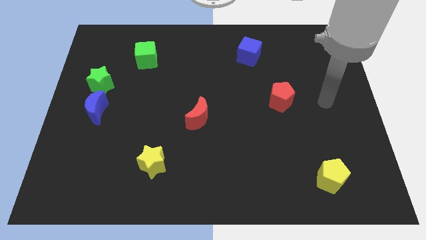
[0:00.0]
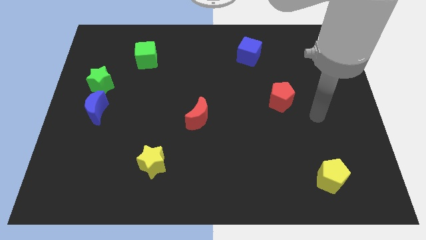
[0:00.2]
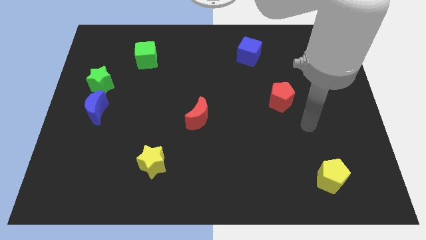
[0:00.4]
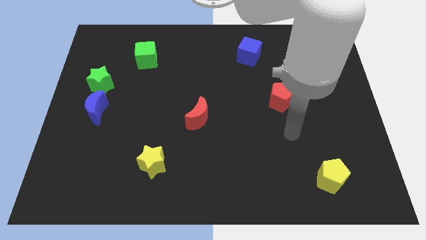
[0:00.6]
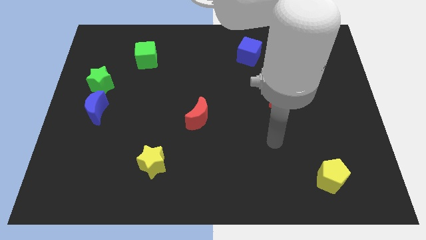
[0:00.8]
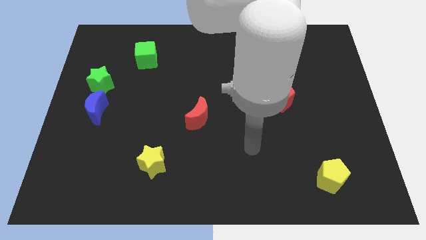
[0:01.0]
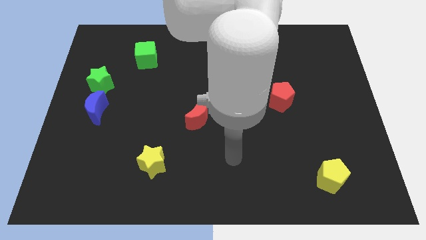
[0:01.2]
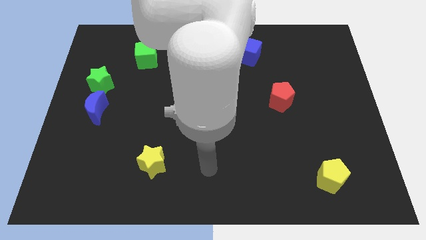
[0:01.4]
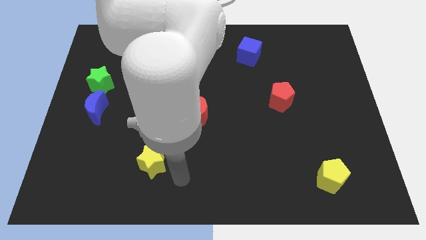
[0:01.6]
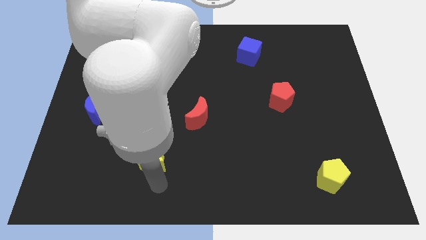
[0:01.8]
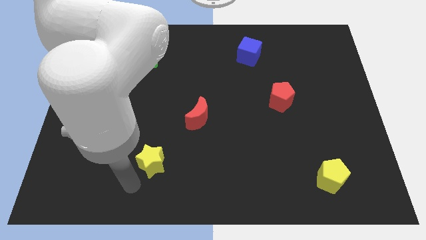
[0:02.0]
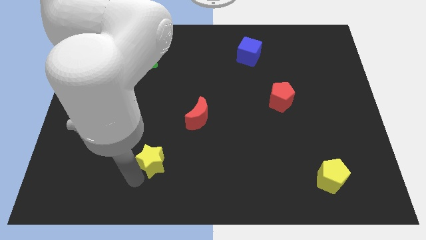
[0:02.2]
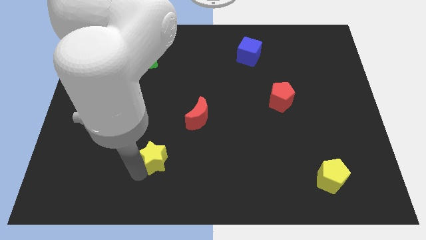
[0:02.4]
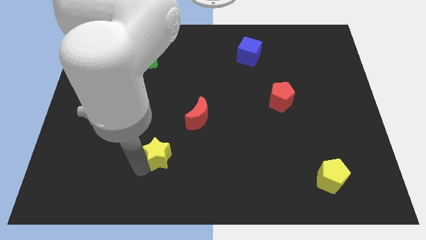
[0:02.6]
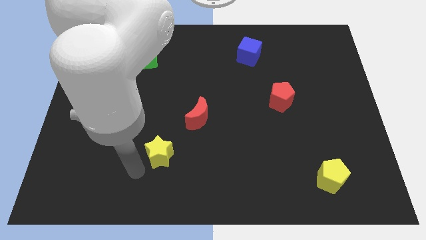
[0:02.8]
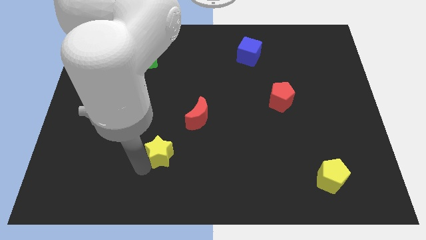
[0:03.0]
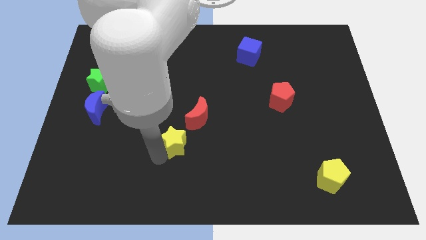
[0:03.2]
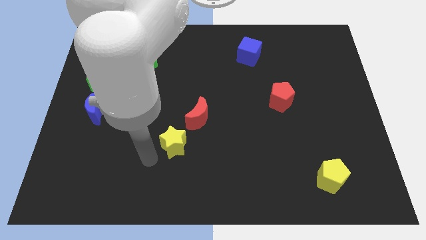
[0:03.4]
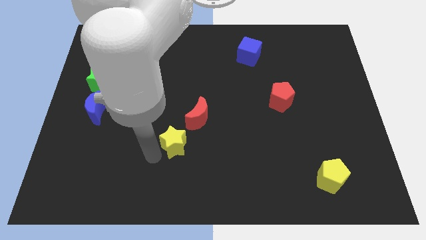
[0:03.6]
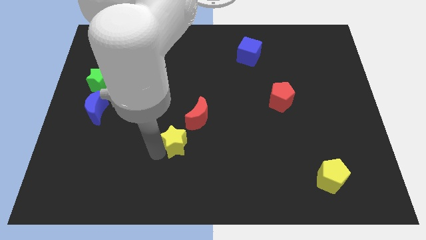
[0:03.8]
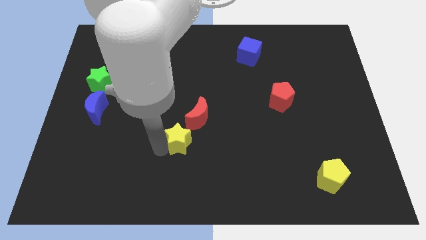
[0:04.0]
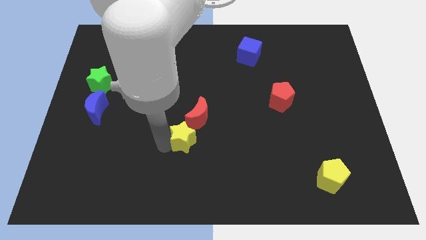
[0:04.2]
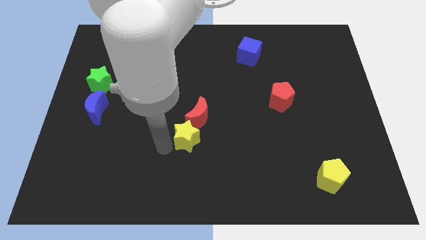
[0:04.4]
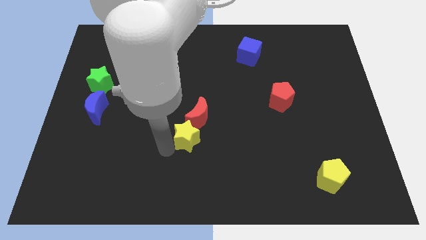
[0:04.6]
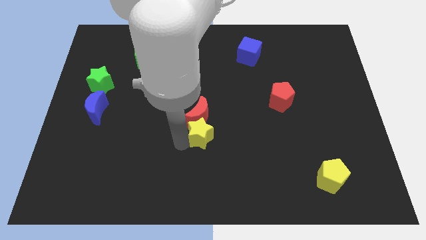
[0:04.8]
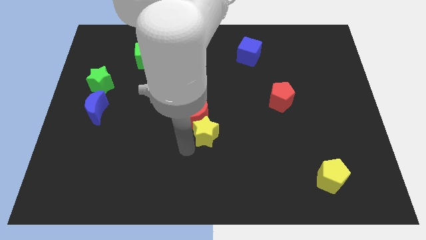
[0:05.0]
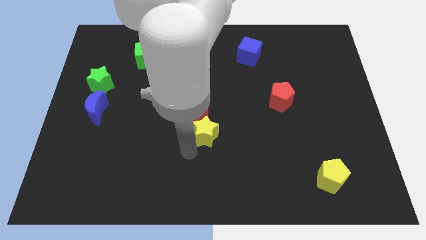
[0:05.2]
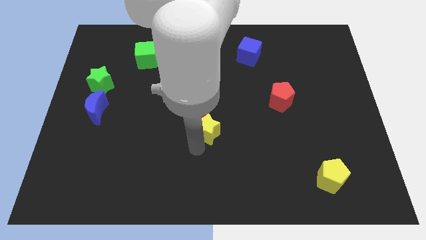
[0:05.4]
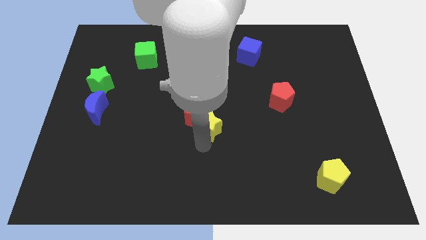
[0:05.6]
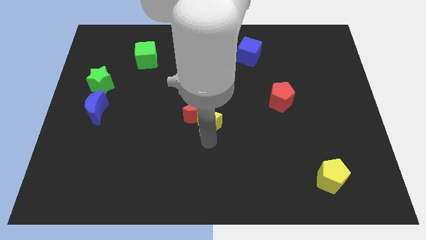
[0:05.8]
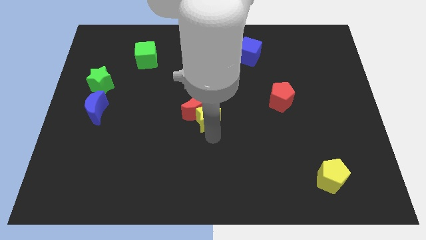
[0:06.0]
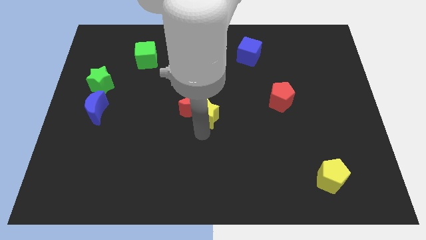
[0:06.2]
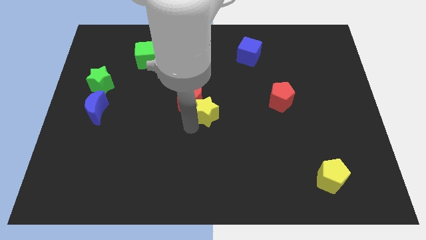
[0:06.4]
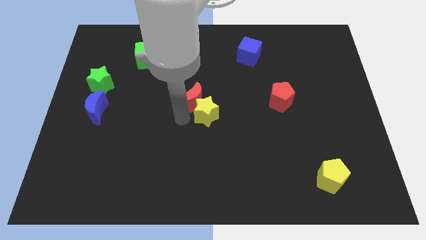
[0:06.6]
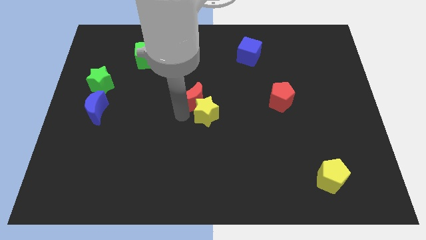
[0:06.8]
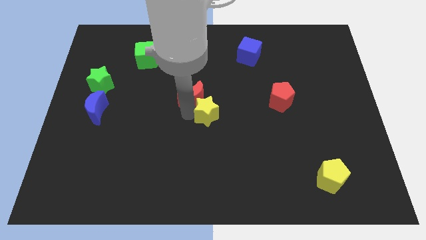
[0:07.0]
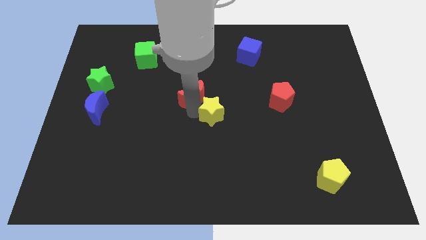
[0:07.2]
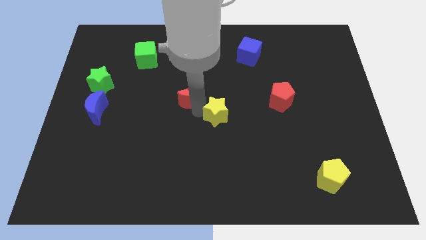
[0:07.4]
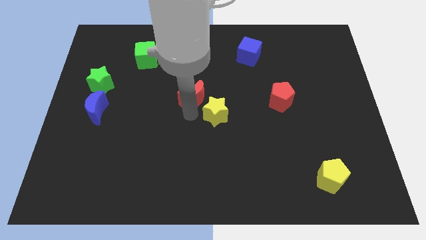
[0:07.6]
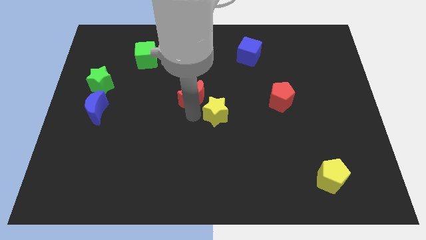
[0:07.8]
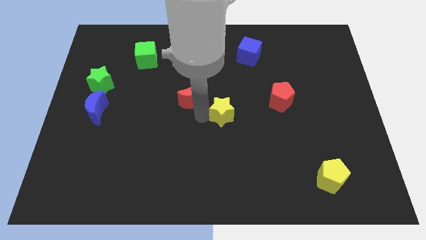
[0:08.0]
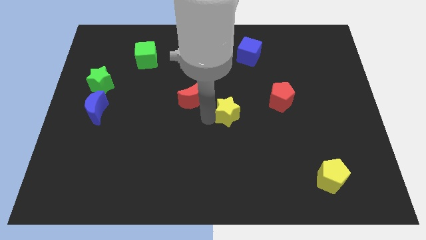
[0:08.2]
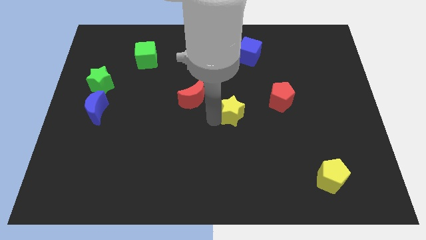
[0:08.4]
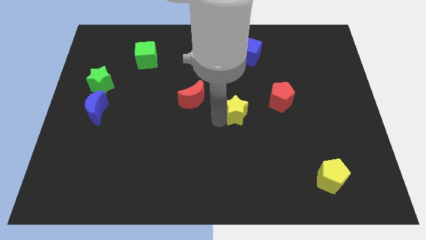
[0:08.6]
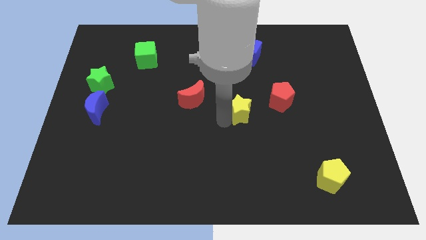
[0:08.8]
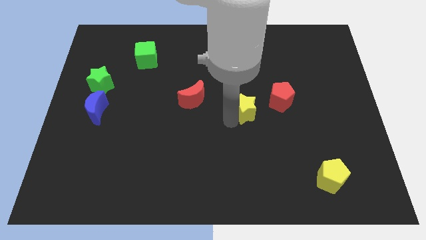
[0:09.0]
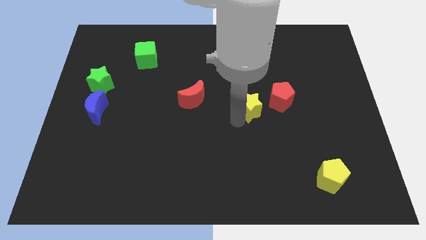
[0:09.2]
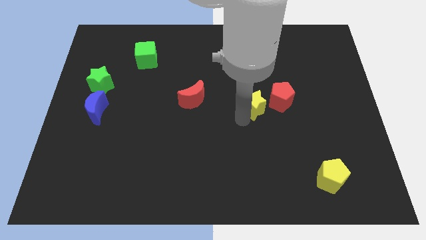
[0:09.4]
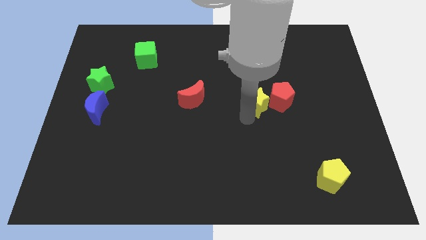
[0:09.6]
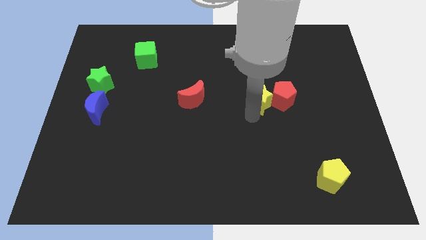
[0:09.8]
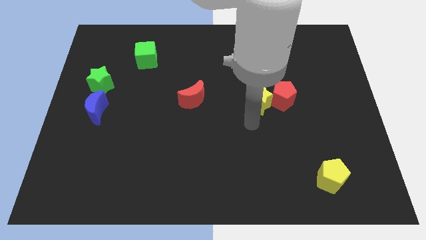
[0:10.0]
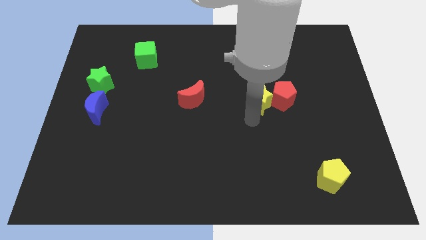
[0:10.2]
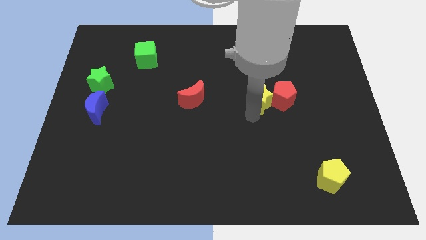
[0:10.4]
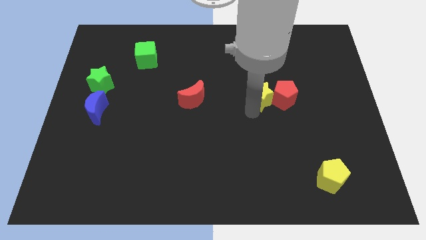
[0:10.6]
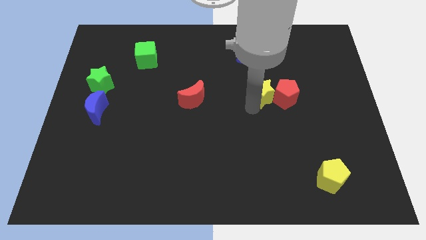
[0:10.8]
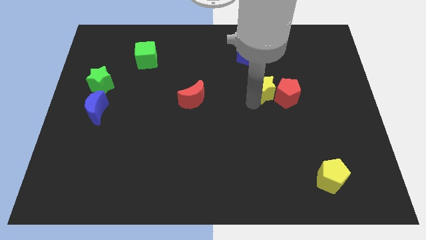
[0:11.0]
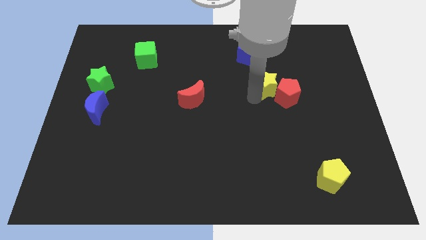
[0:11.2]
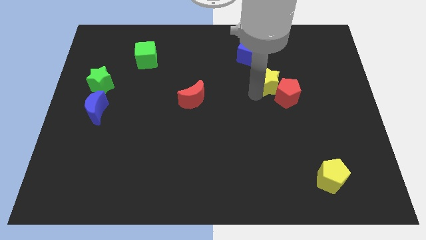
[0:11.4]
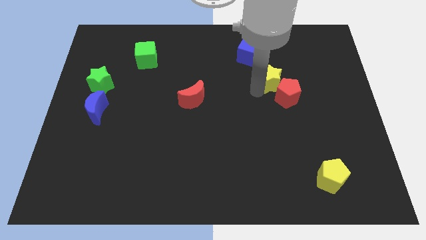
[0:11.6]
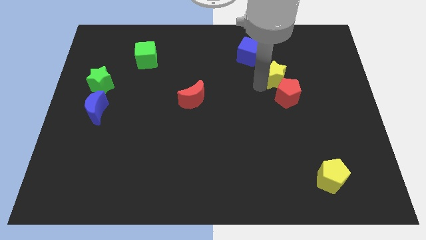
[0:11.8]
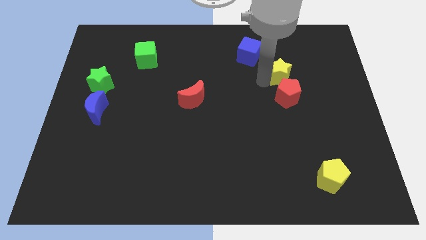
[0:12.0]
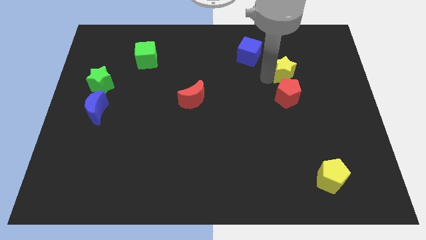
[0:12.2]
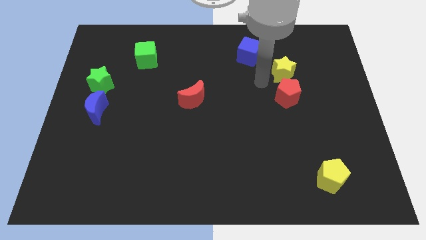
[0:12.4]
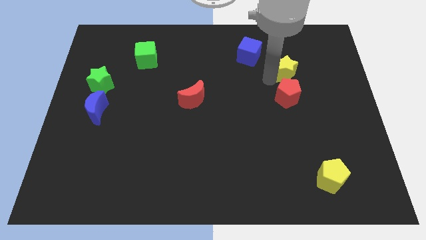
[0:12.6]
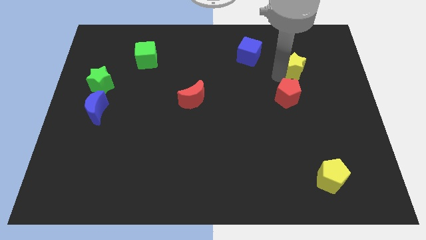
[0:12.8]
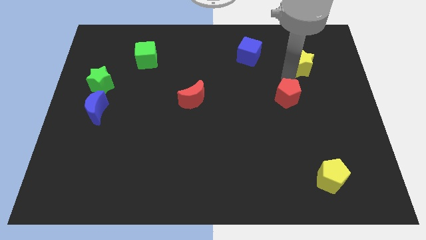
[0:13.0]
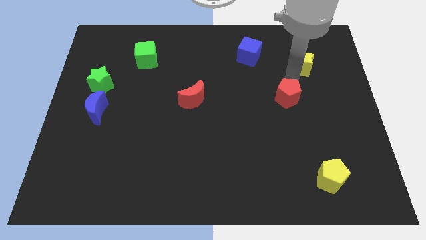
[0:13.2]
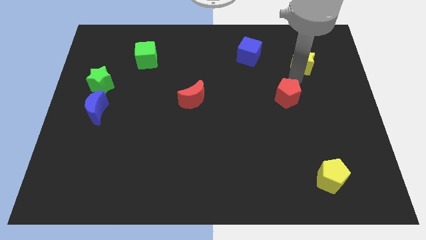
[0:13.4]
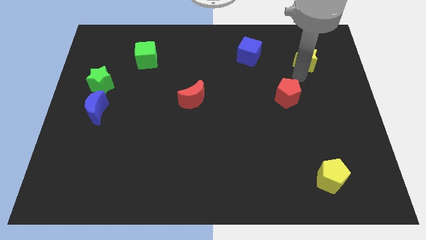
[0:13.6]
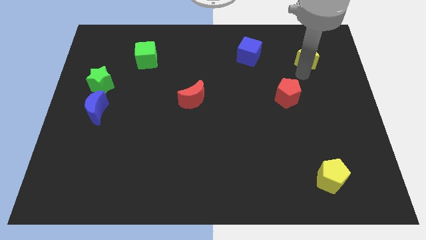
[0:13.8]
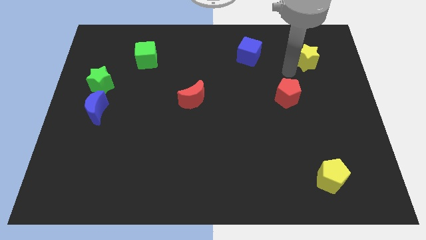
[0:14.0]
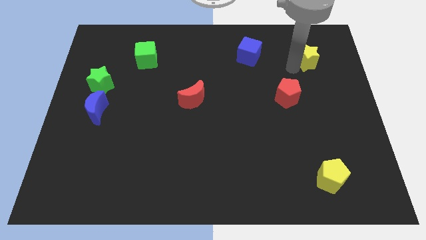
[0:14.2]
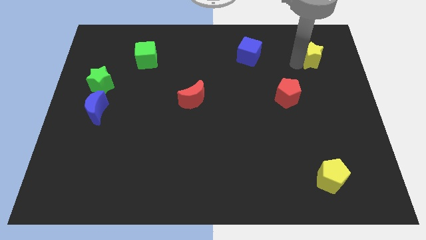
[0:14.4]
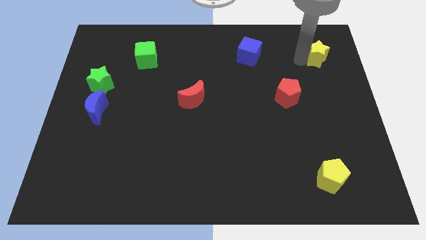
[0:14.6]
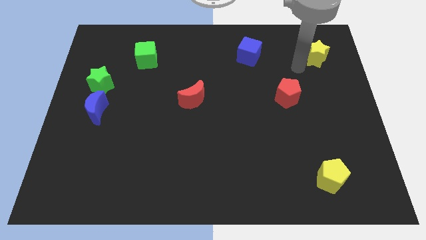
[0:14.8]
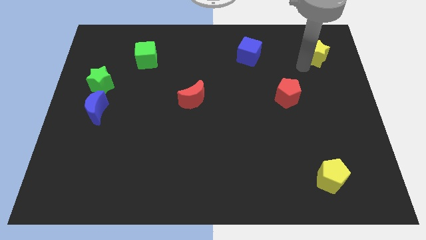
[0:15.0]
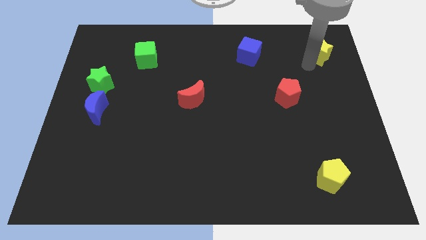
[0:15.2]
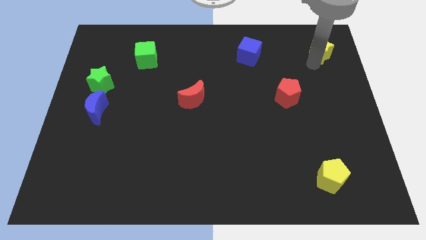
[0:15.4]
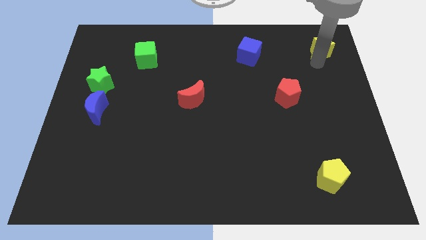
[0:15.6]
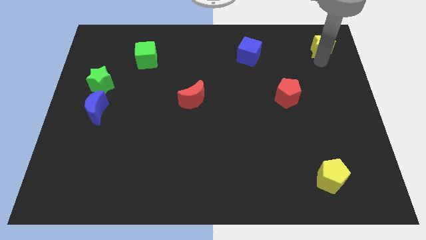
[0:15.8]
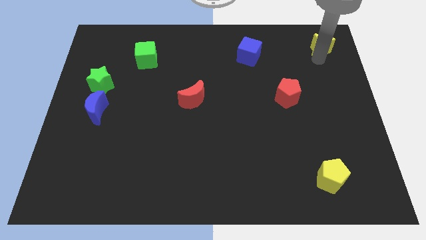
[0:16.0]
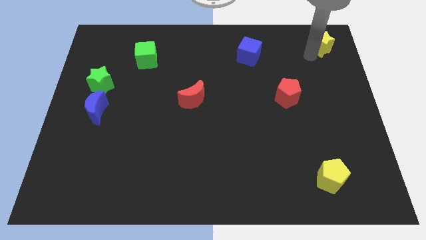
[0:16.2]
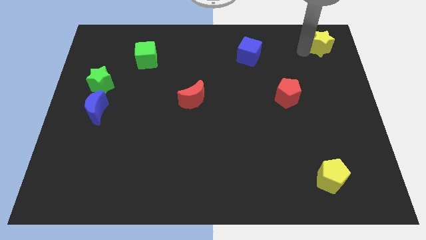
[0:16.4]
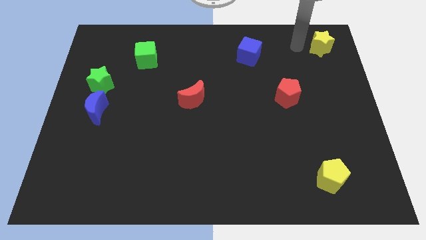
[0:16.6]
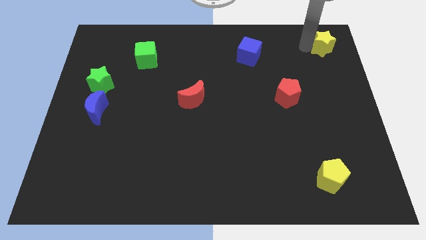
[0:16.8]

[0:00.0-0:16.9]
push the yellow star to the top right of the board
